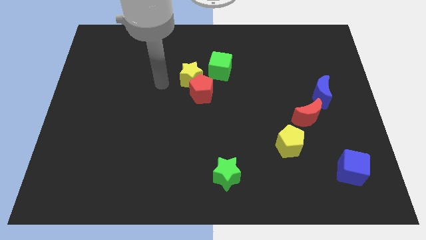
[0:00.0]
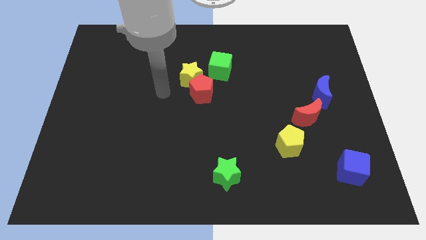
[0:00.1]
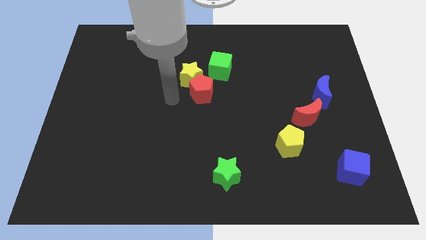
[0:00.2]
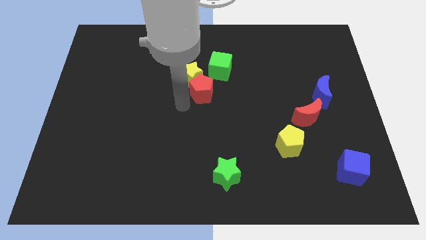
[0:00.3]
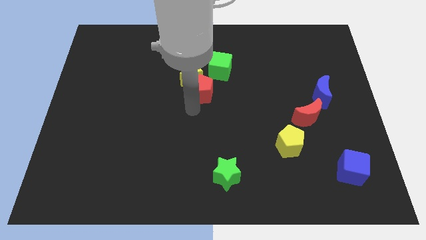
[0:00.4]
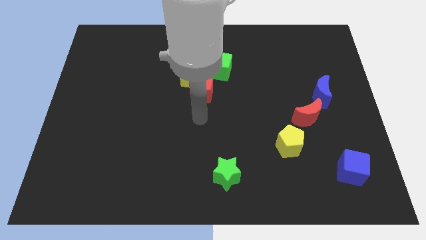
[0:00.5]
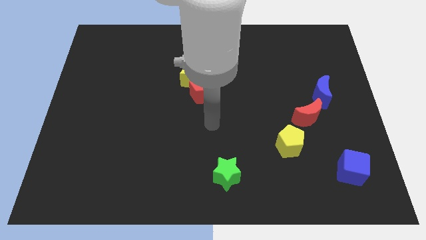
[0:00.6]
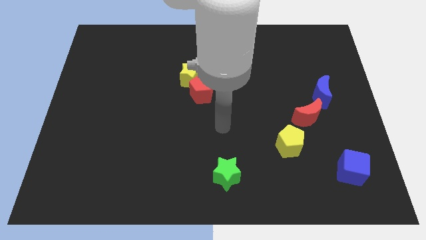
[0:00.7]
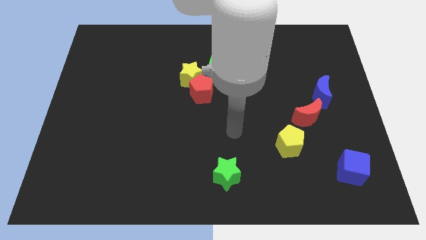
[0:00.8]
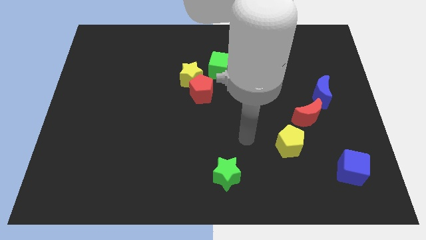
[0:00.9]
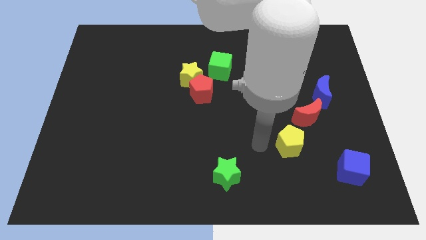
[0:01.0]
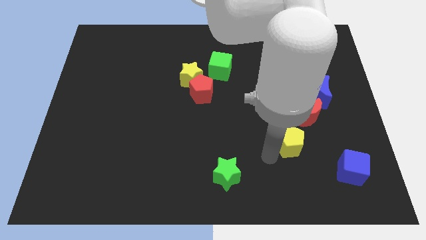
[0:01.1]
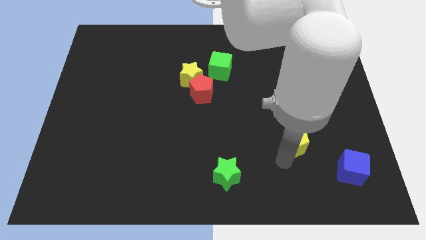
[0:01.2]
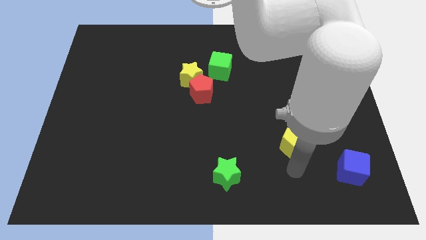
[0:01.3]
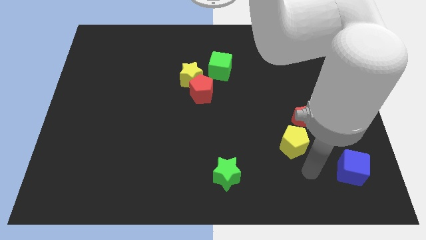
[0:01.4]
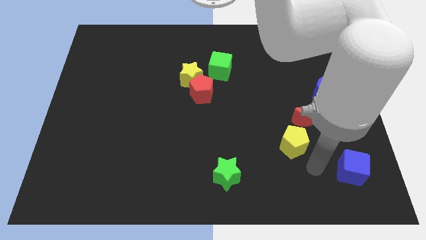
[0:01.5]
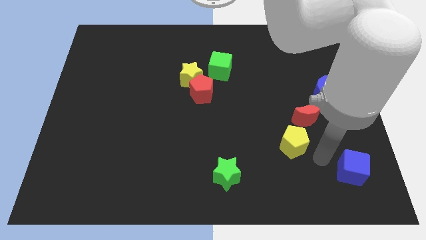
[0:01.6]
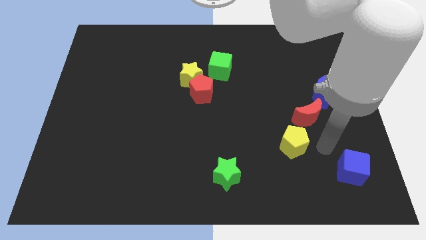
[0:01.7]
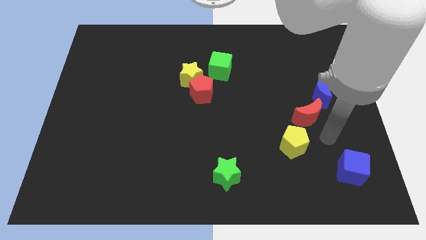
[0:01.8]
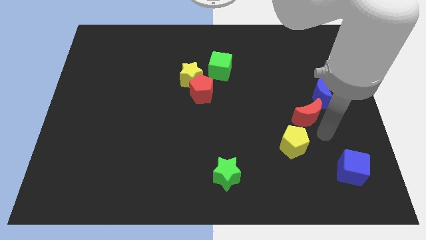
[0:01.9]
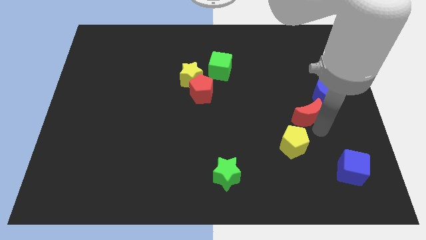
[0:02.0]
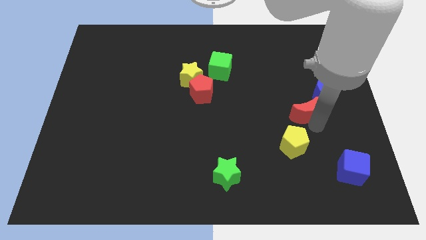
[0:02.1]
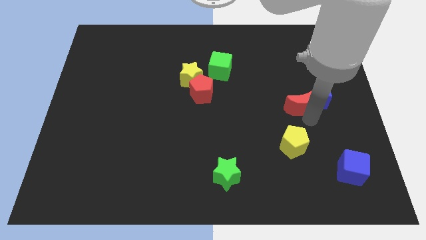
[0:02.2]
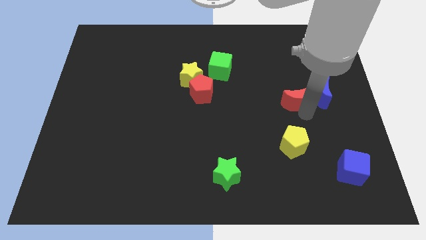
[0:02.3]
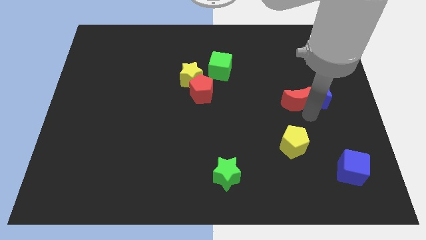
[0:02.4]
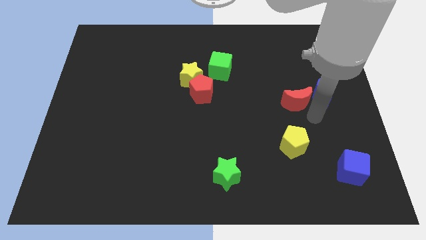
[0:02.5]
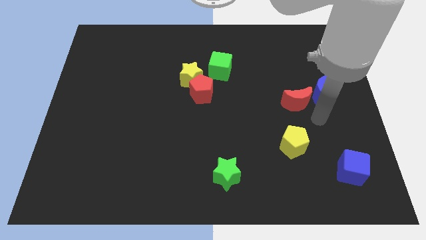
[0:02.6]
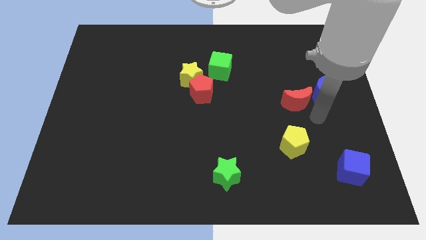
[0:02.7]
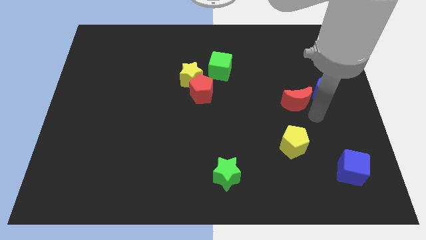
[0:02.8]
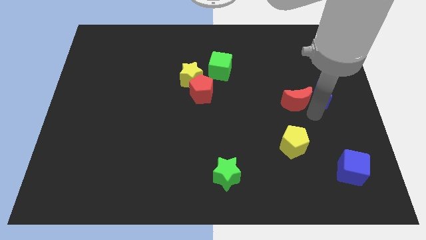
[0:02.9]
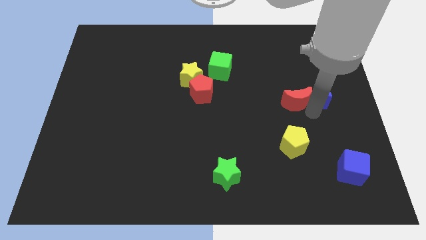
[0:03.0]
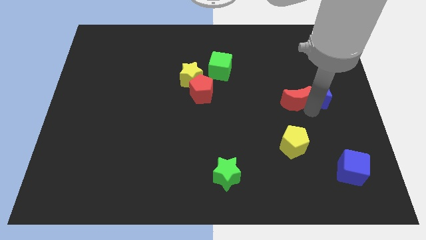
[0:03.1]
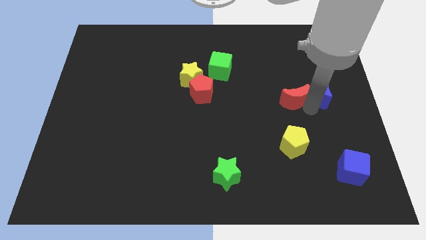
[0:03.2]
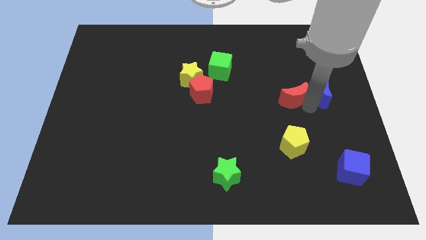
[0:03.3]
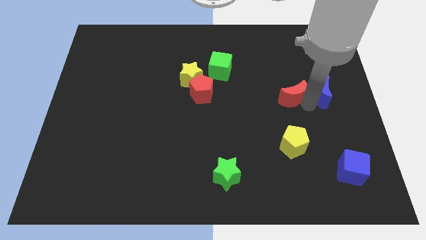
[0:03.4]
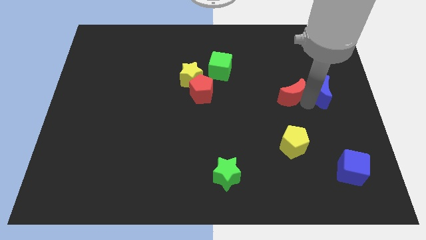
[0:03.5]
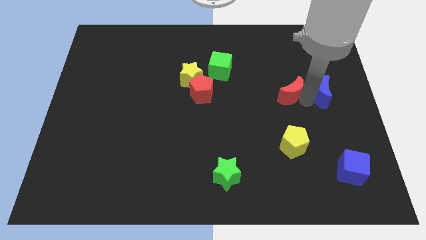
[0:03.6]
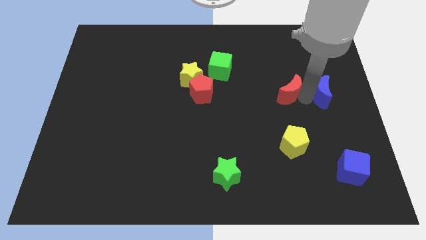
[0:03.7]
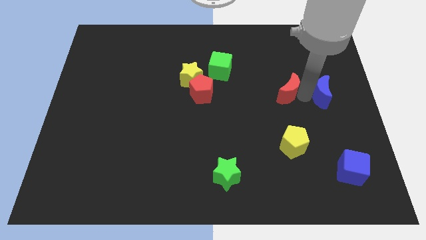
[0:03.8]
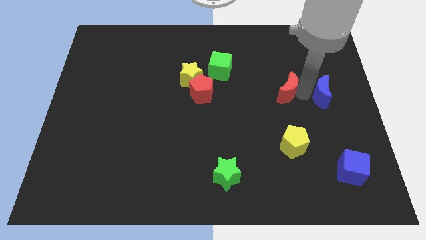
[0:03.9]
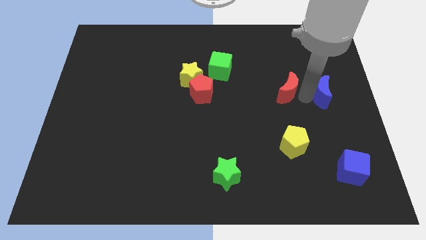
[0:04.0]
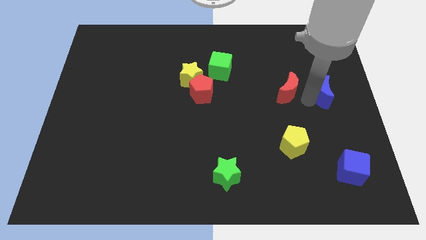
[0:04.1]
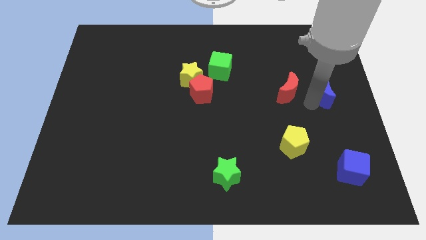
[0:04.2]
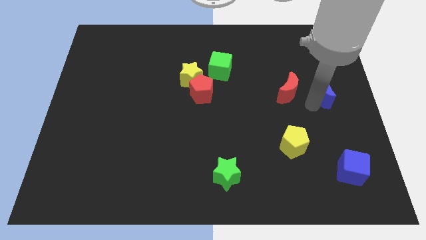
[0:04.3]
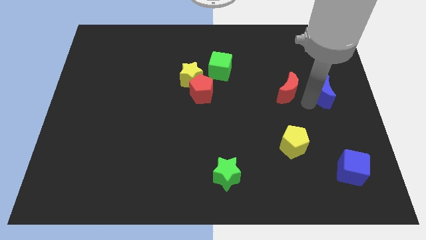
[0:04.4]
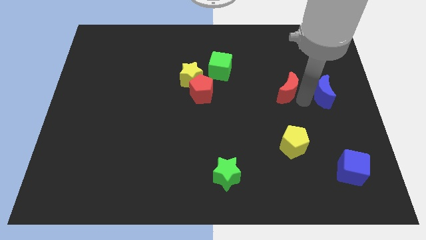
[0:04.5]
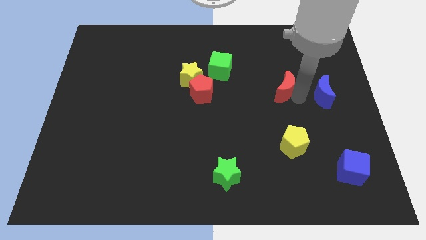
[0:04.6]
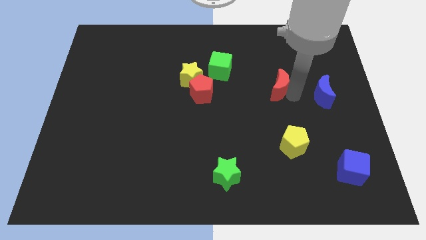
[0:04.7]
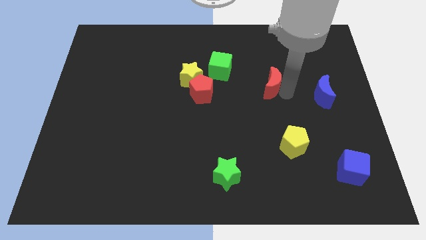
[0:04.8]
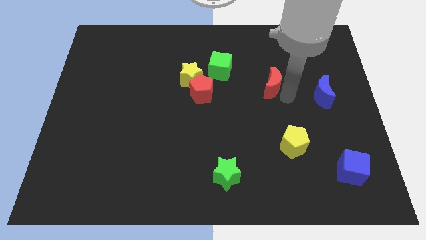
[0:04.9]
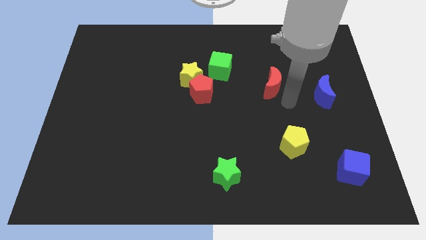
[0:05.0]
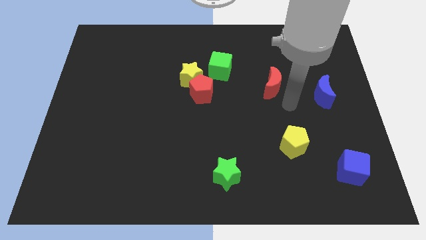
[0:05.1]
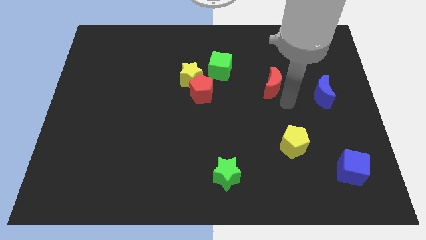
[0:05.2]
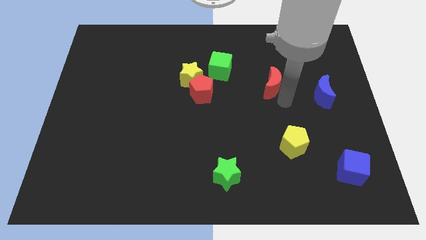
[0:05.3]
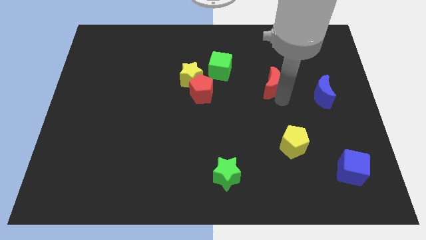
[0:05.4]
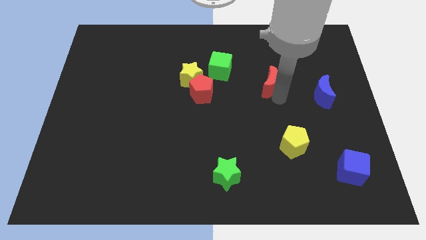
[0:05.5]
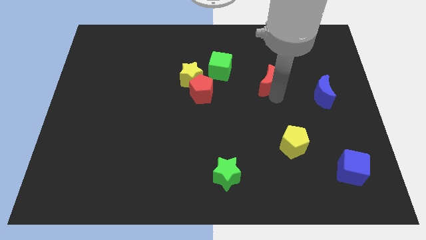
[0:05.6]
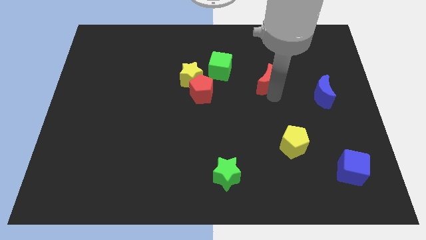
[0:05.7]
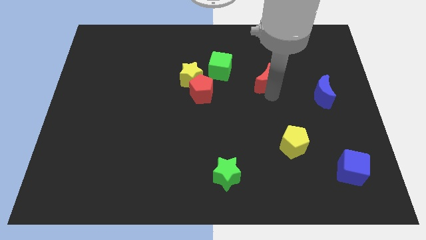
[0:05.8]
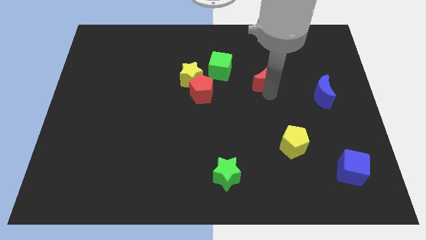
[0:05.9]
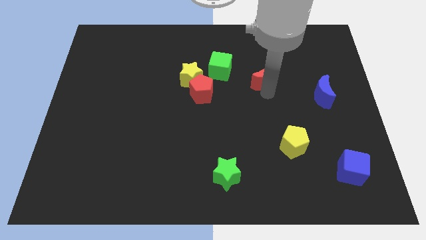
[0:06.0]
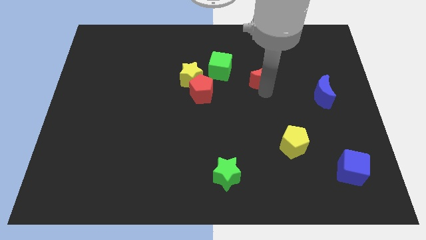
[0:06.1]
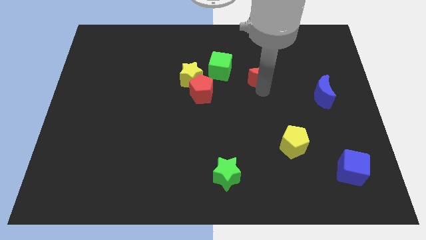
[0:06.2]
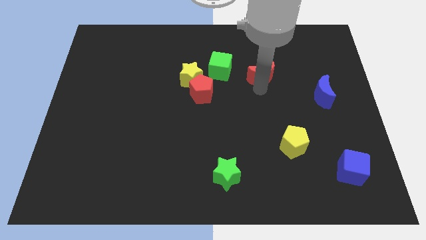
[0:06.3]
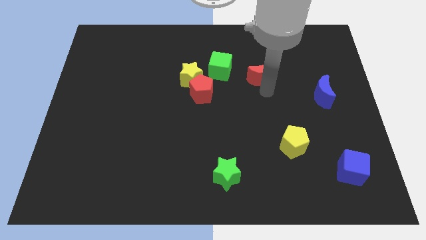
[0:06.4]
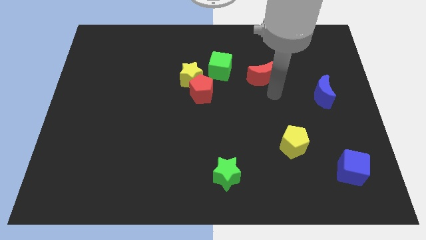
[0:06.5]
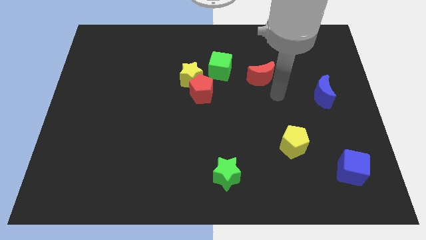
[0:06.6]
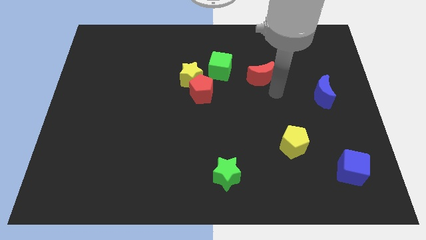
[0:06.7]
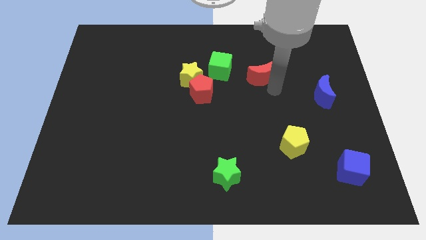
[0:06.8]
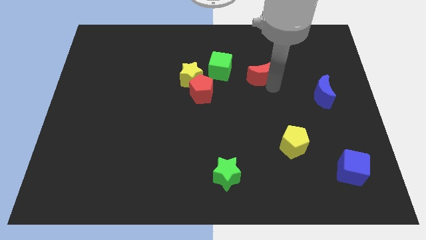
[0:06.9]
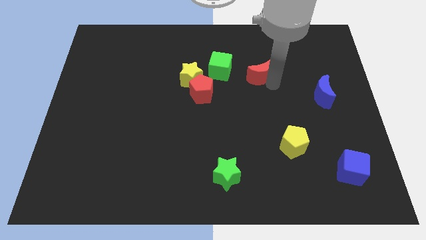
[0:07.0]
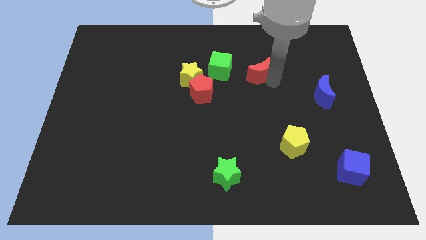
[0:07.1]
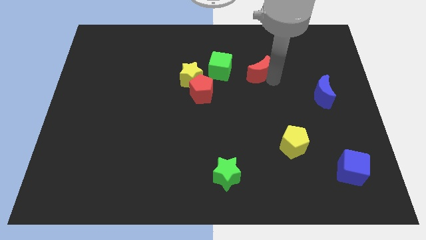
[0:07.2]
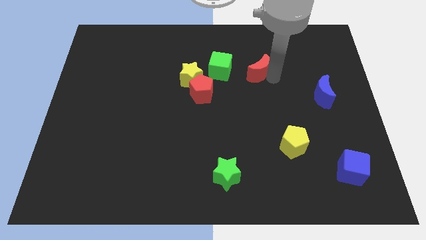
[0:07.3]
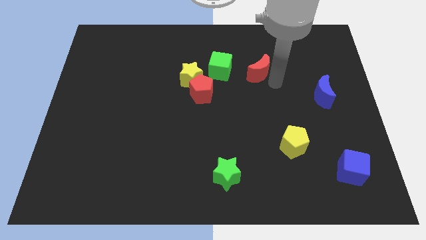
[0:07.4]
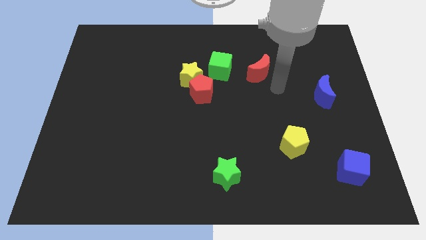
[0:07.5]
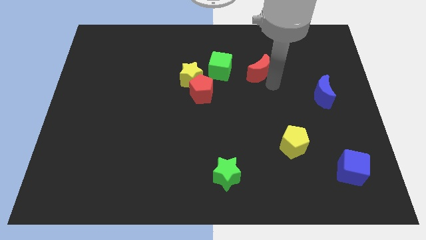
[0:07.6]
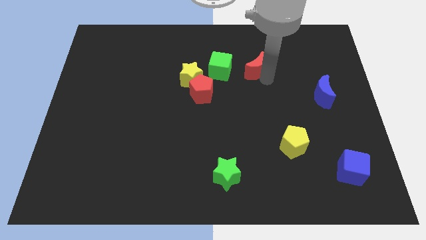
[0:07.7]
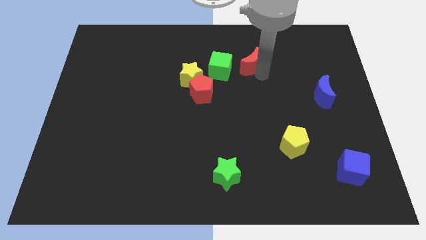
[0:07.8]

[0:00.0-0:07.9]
slide the red moon to the top right of the green cube
